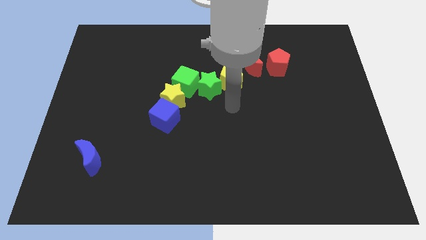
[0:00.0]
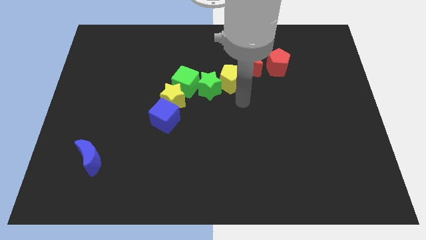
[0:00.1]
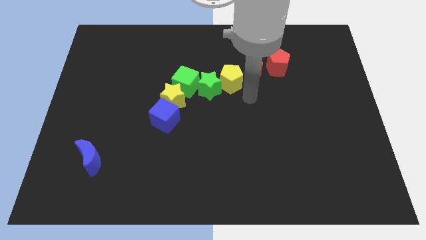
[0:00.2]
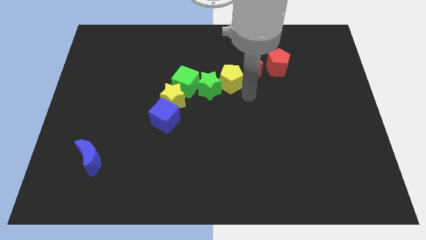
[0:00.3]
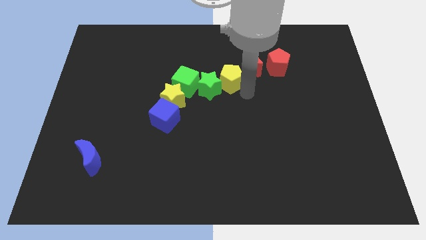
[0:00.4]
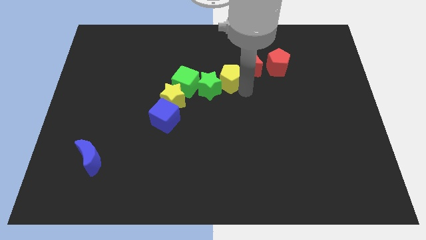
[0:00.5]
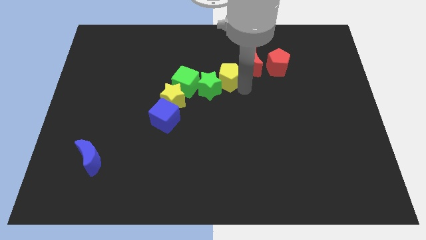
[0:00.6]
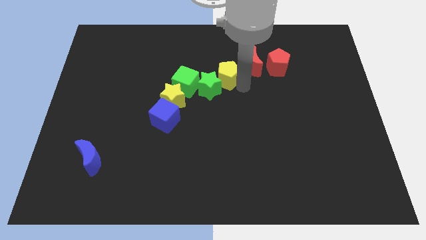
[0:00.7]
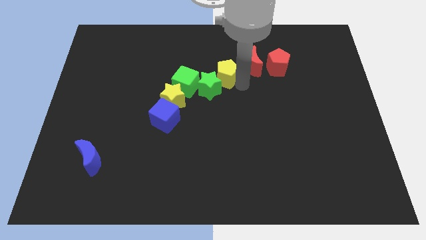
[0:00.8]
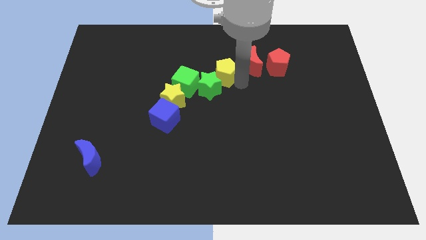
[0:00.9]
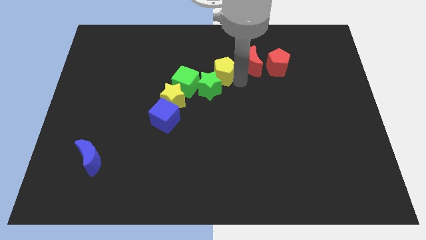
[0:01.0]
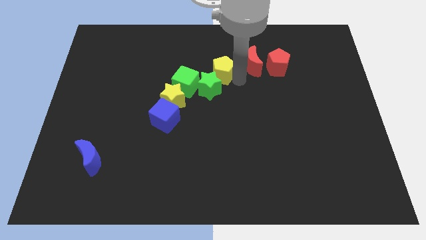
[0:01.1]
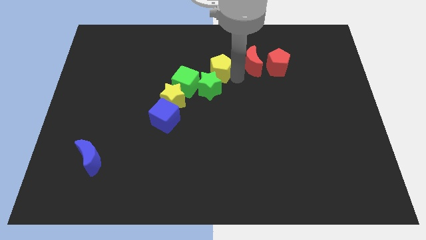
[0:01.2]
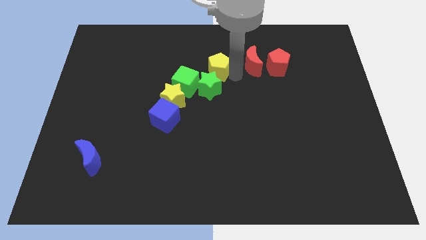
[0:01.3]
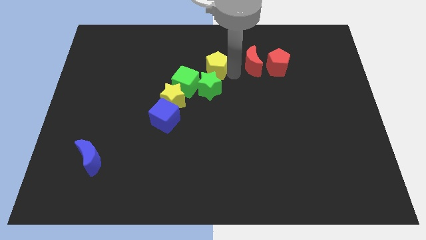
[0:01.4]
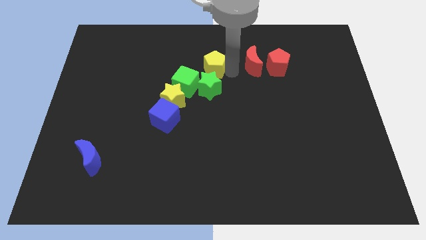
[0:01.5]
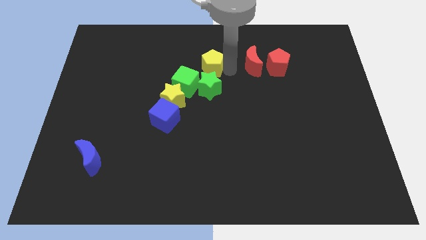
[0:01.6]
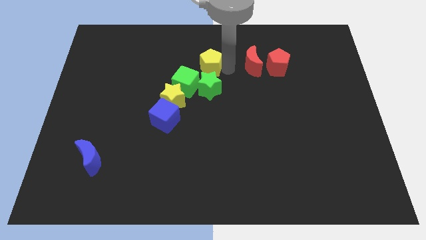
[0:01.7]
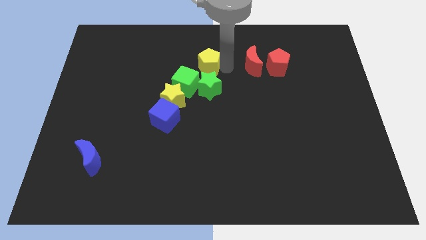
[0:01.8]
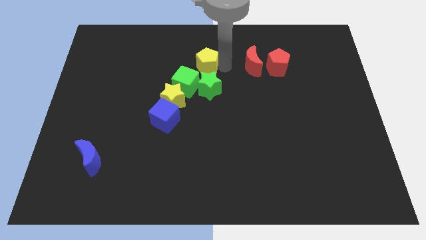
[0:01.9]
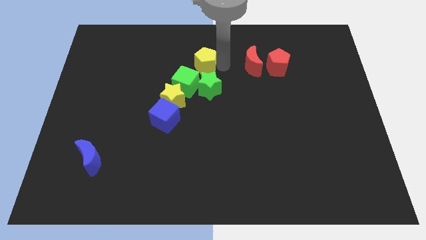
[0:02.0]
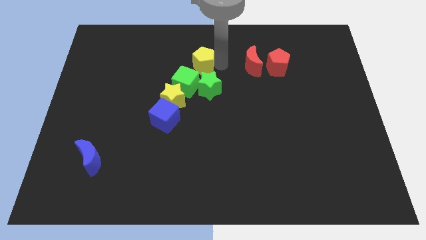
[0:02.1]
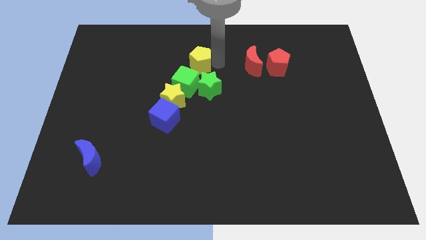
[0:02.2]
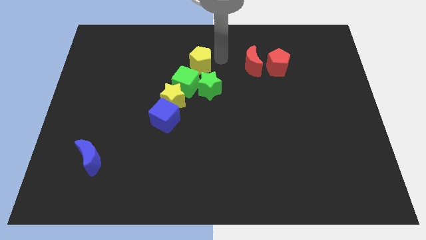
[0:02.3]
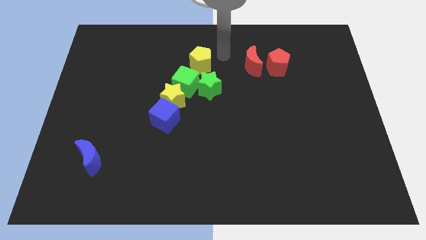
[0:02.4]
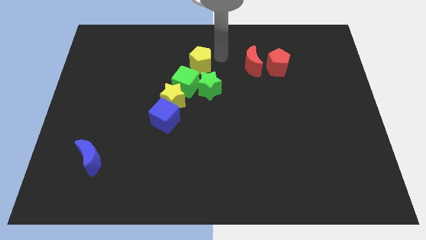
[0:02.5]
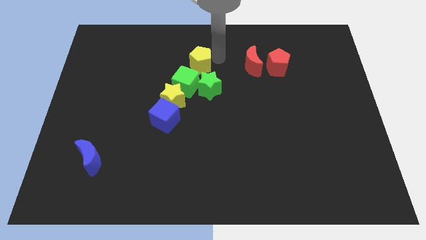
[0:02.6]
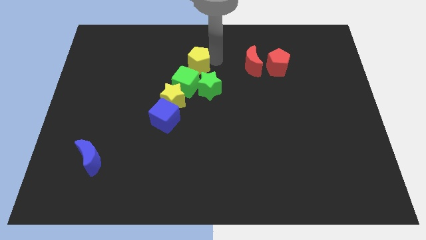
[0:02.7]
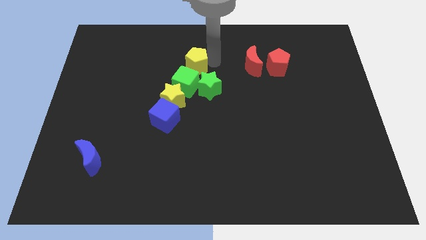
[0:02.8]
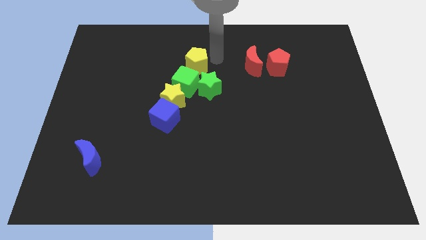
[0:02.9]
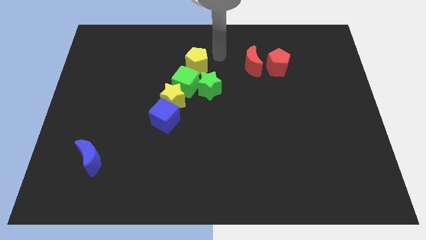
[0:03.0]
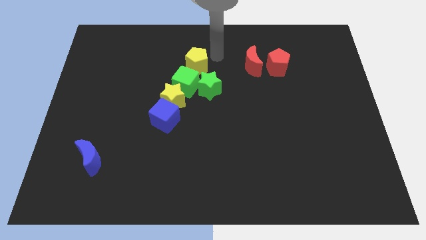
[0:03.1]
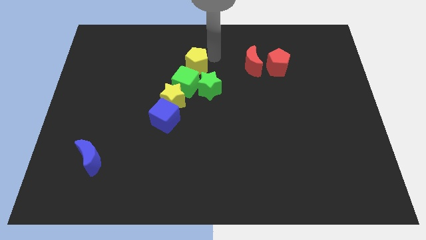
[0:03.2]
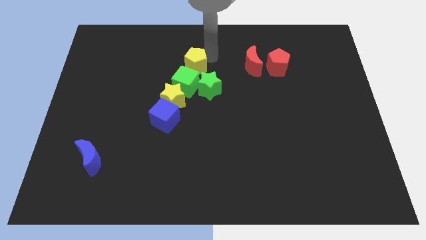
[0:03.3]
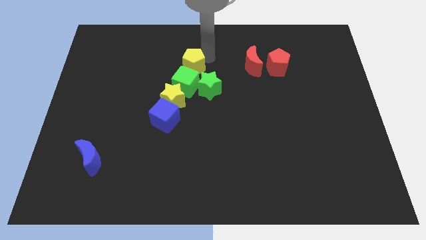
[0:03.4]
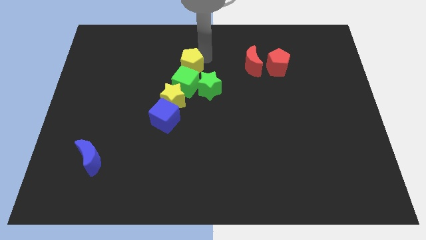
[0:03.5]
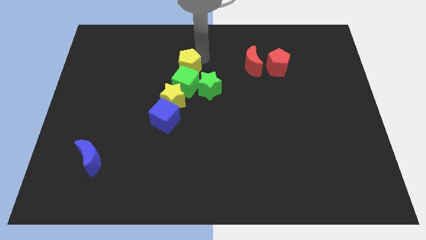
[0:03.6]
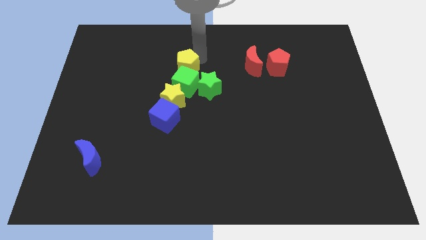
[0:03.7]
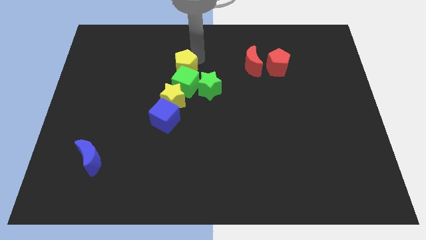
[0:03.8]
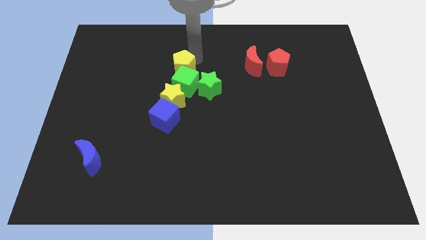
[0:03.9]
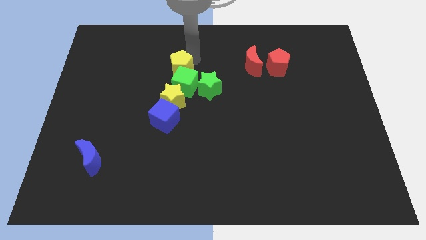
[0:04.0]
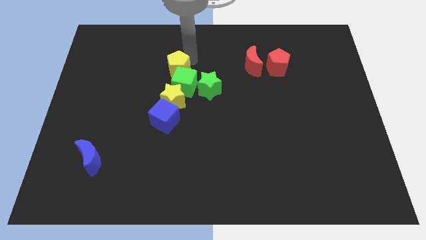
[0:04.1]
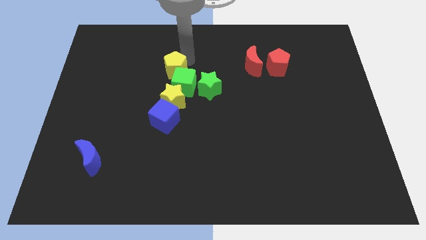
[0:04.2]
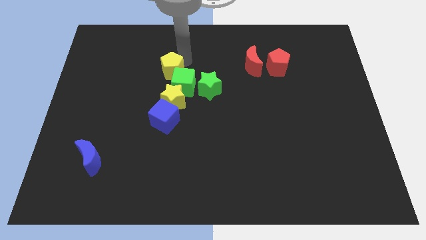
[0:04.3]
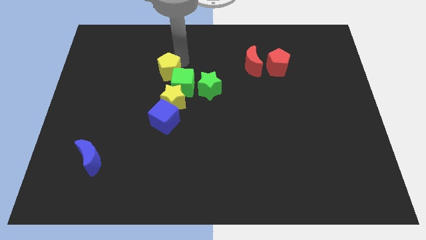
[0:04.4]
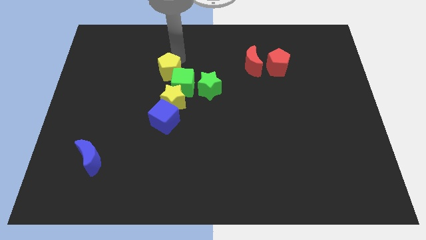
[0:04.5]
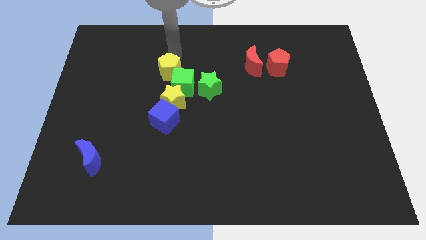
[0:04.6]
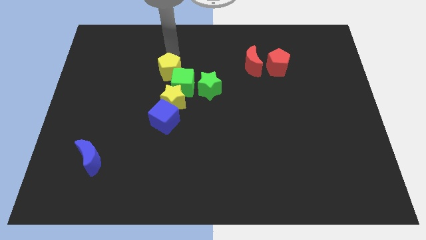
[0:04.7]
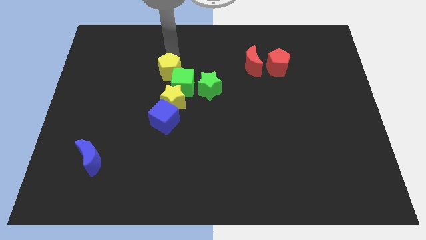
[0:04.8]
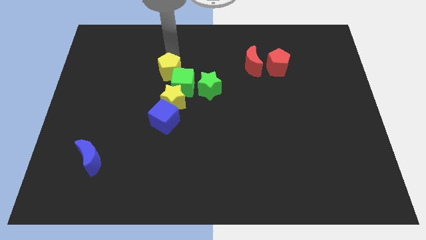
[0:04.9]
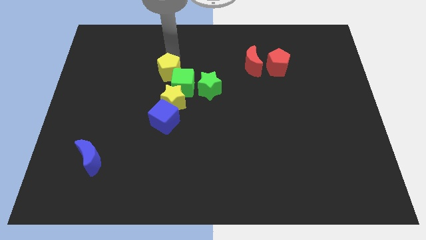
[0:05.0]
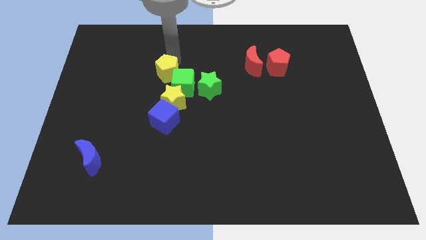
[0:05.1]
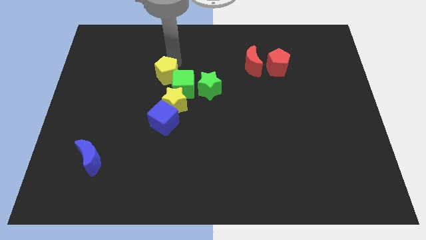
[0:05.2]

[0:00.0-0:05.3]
put the yellow pentagon left of the green star

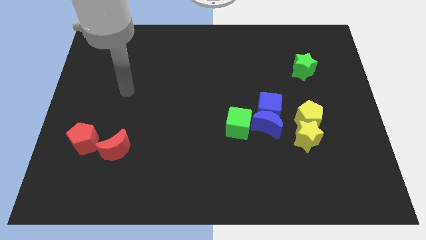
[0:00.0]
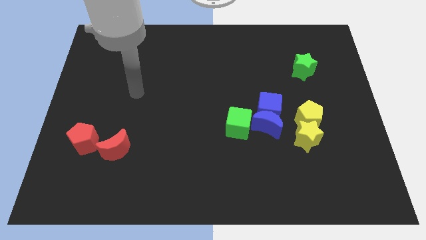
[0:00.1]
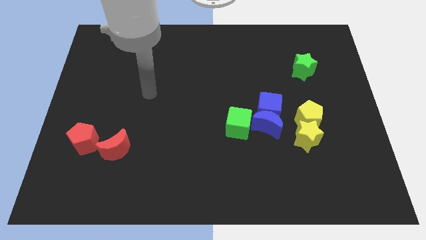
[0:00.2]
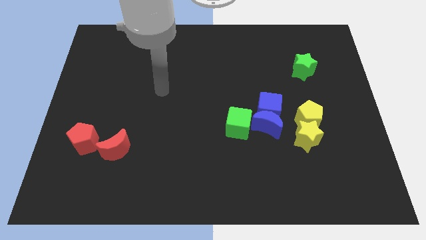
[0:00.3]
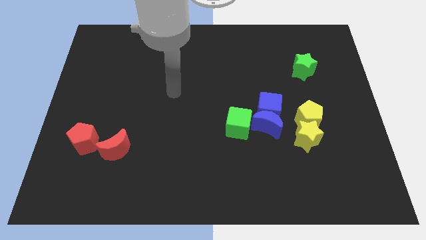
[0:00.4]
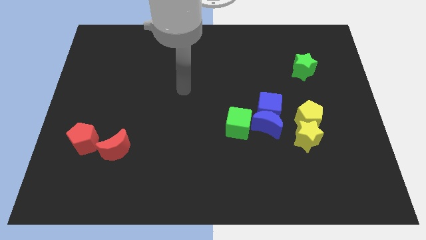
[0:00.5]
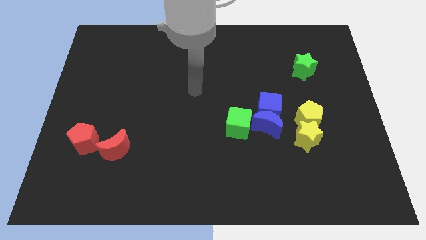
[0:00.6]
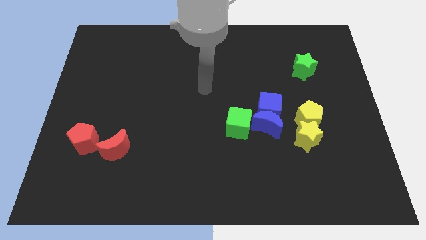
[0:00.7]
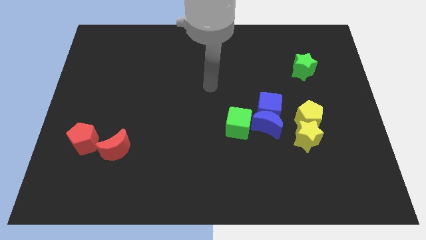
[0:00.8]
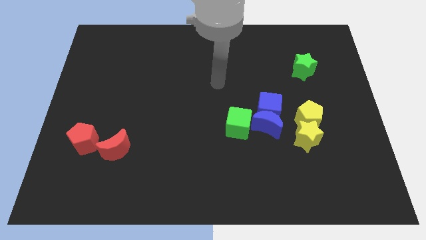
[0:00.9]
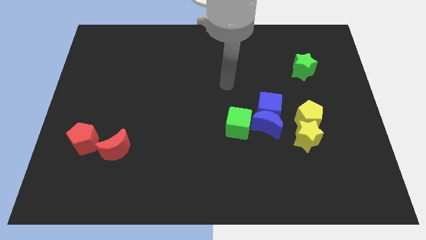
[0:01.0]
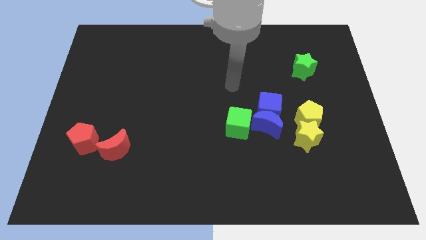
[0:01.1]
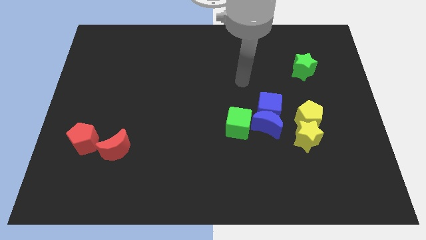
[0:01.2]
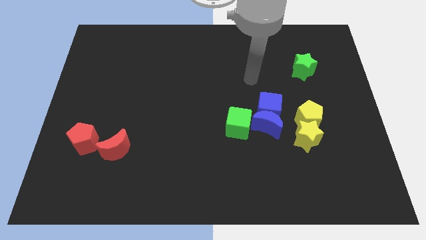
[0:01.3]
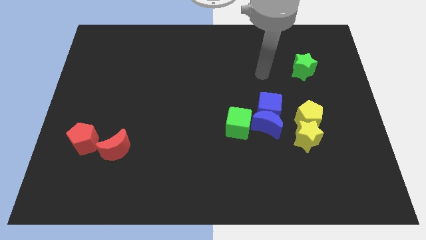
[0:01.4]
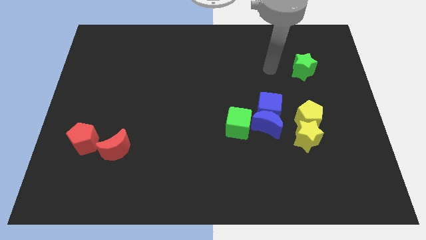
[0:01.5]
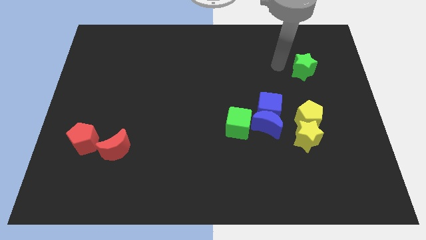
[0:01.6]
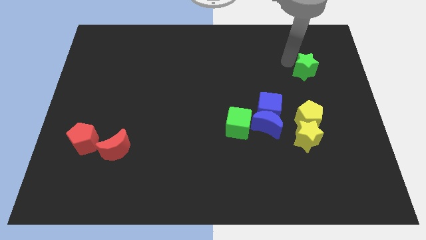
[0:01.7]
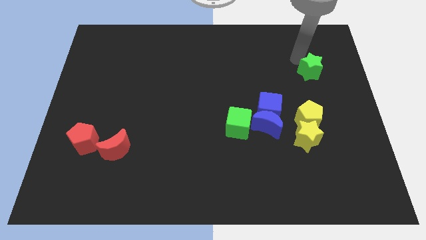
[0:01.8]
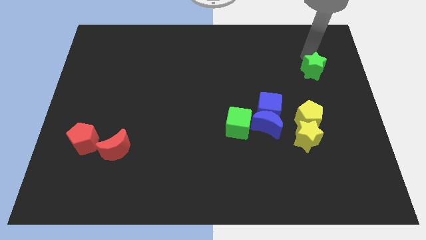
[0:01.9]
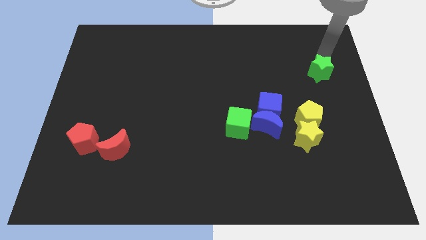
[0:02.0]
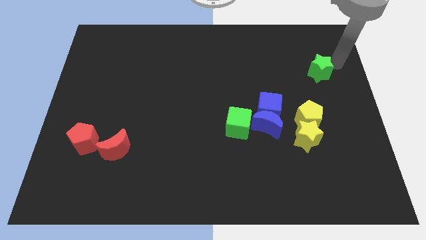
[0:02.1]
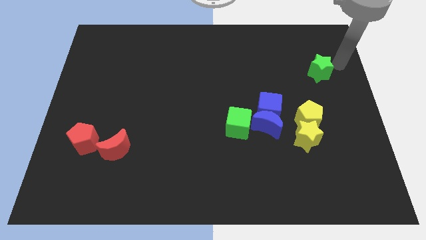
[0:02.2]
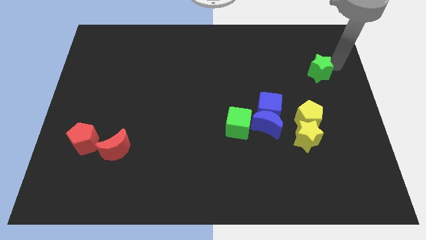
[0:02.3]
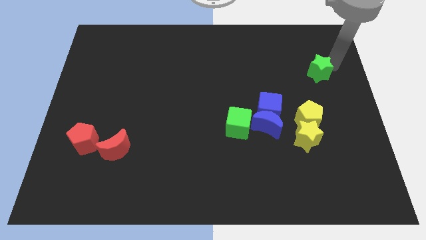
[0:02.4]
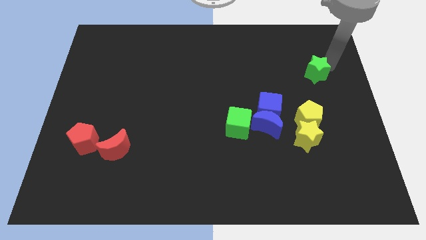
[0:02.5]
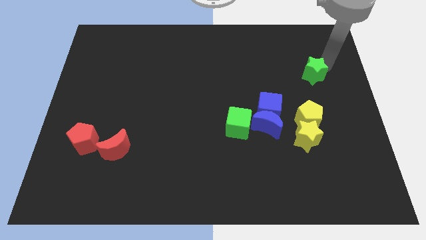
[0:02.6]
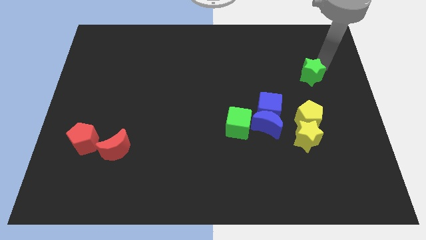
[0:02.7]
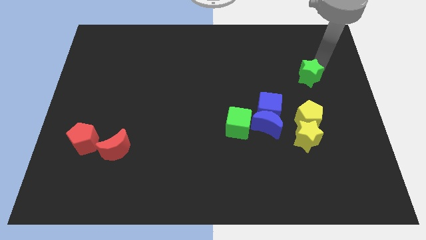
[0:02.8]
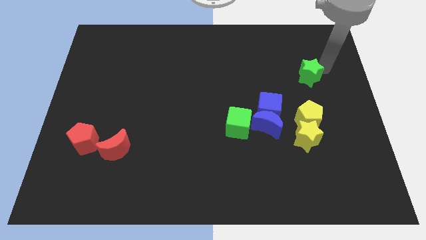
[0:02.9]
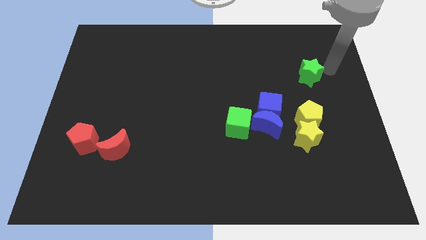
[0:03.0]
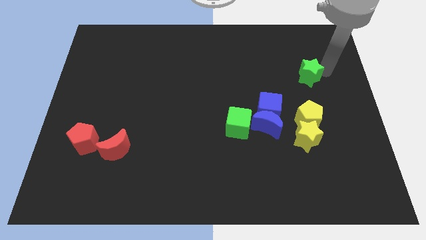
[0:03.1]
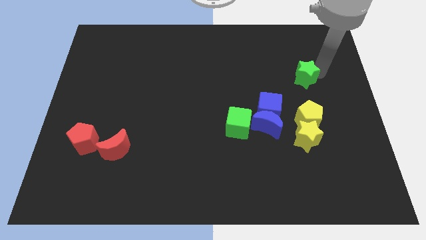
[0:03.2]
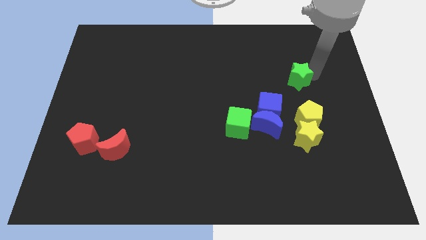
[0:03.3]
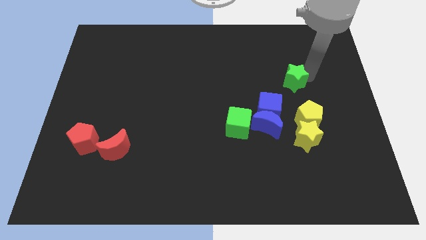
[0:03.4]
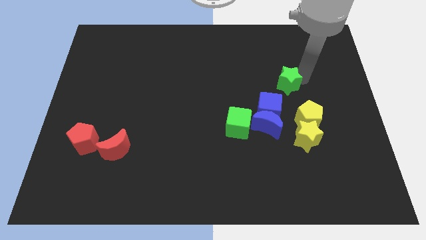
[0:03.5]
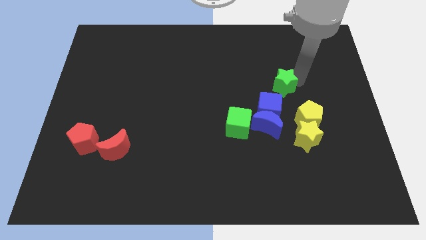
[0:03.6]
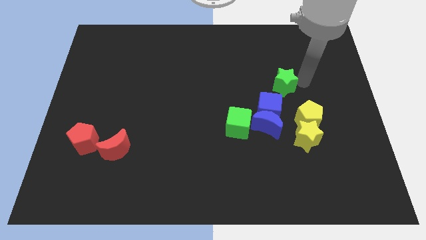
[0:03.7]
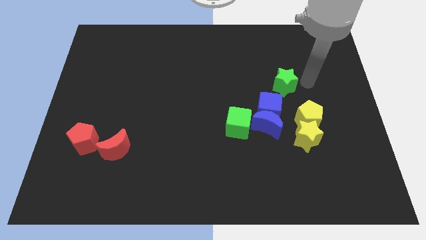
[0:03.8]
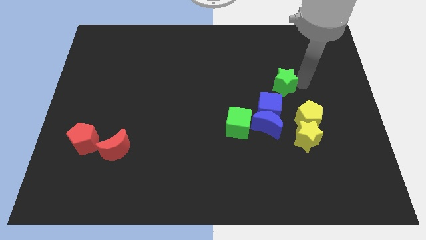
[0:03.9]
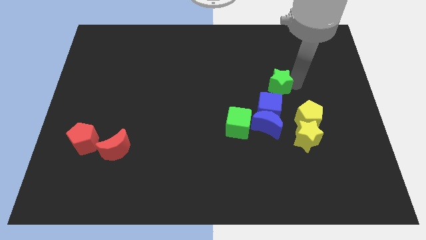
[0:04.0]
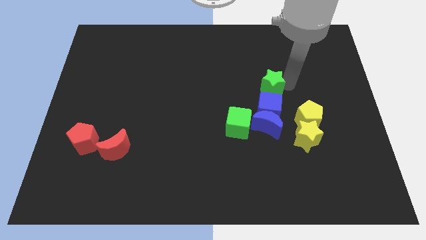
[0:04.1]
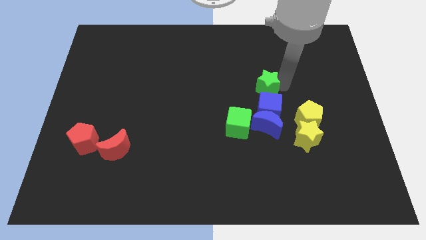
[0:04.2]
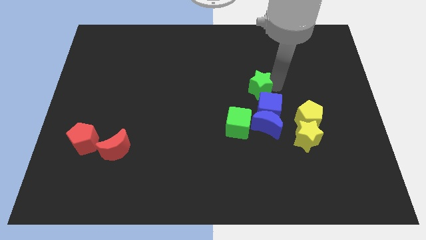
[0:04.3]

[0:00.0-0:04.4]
move the green star to the top left of the blue cube
